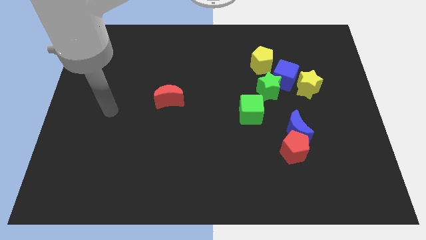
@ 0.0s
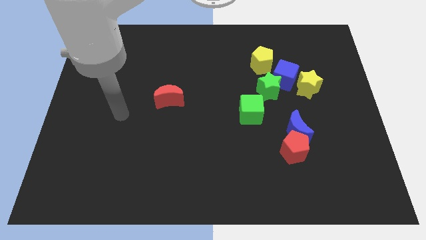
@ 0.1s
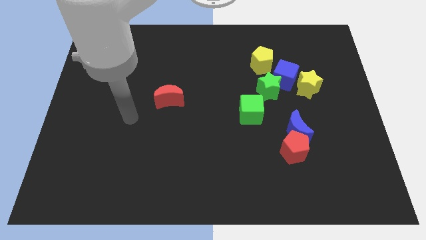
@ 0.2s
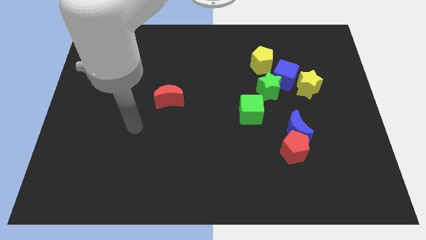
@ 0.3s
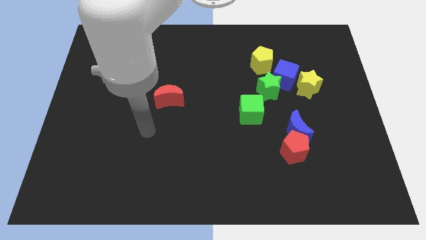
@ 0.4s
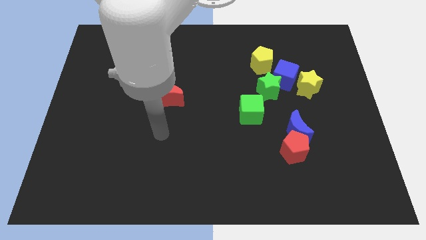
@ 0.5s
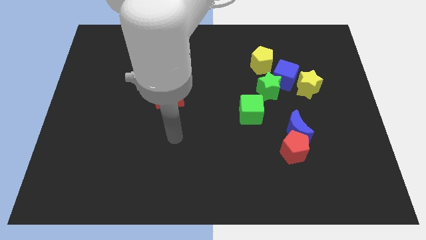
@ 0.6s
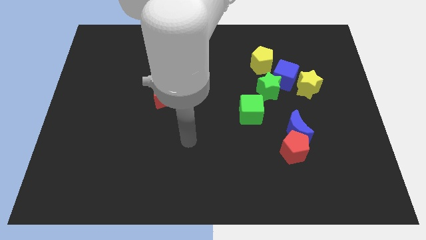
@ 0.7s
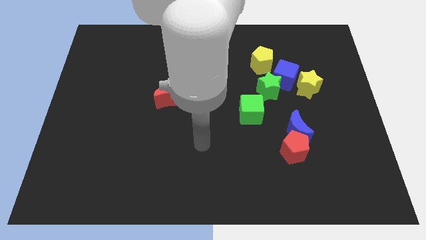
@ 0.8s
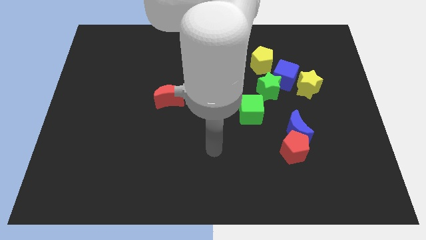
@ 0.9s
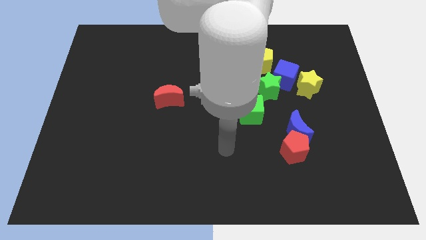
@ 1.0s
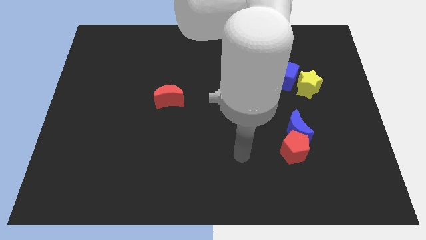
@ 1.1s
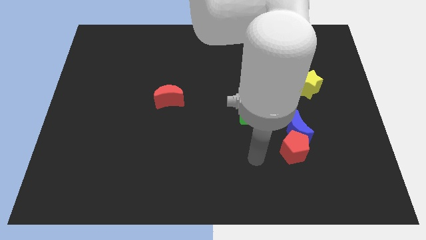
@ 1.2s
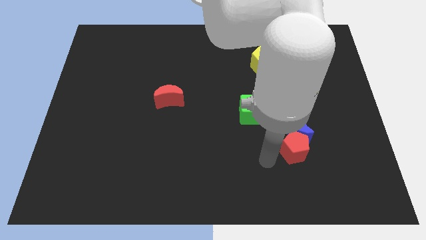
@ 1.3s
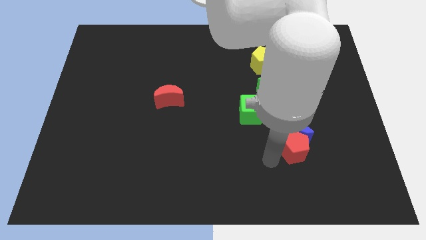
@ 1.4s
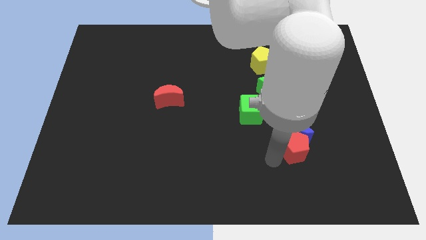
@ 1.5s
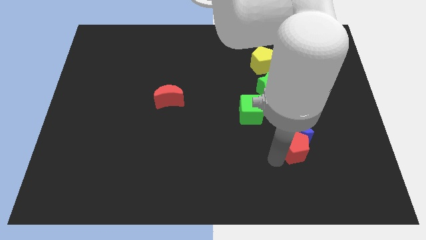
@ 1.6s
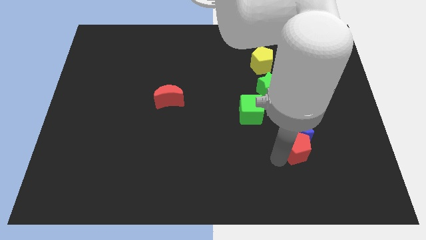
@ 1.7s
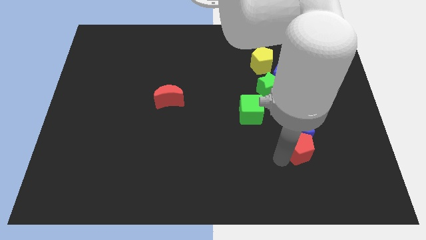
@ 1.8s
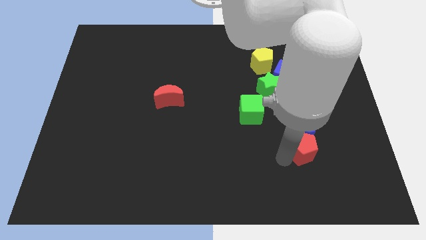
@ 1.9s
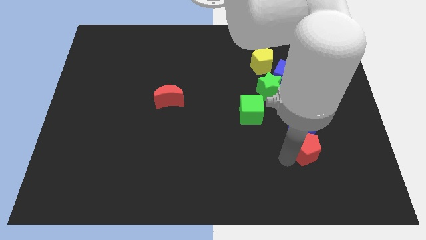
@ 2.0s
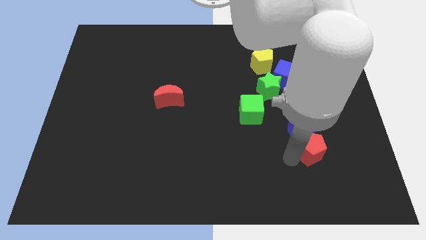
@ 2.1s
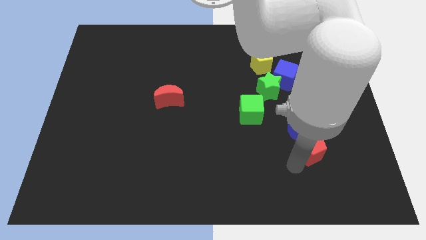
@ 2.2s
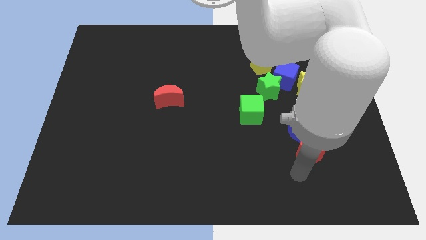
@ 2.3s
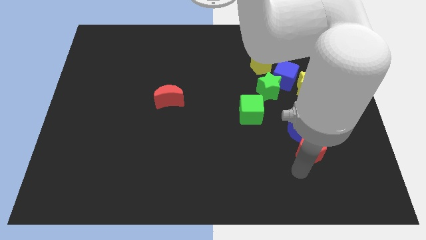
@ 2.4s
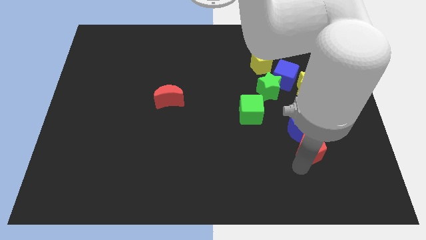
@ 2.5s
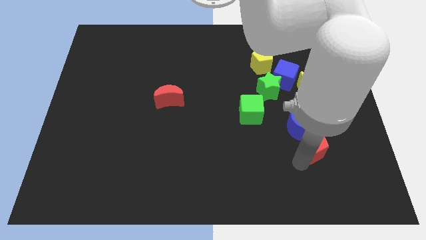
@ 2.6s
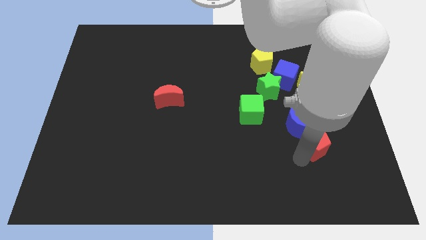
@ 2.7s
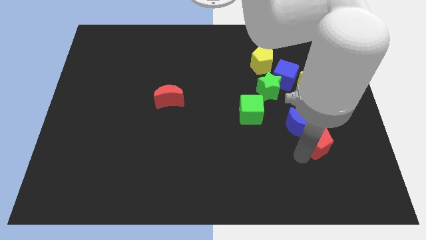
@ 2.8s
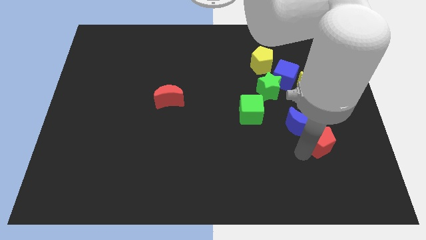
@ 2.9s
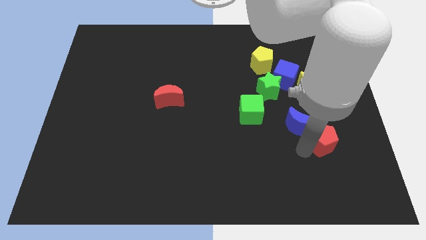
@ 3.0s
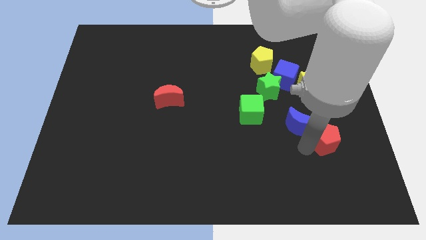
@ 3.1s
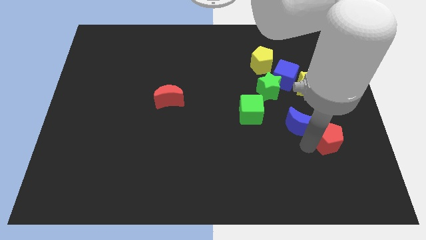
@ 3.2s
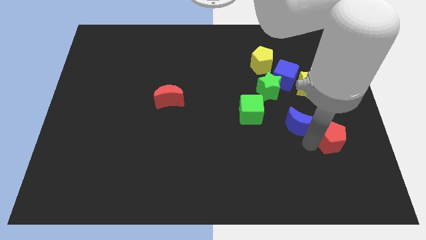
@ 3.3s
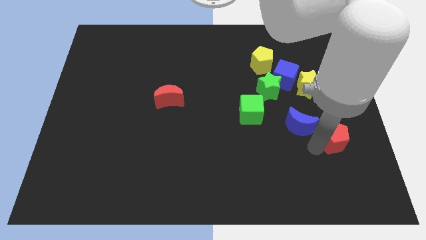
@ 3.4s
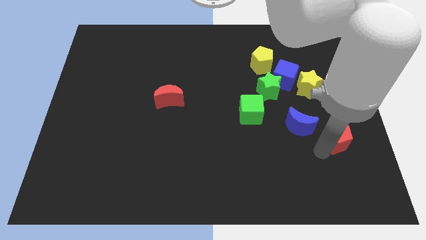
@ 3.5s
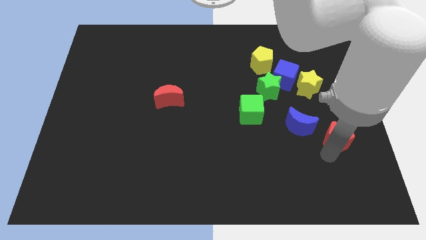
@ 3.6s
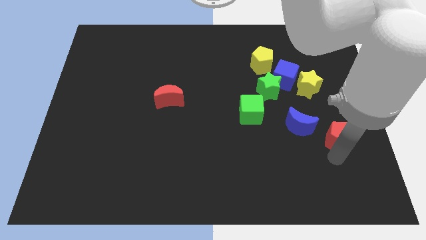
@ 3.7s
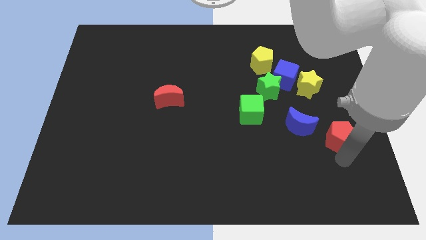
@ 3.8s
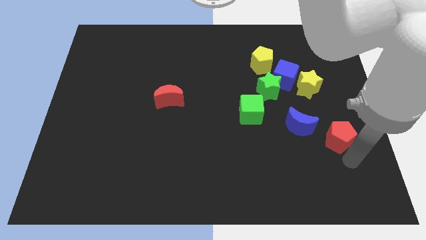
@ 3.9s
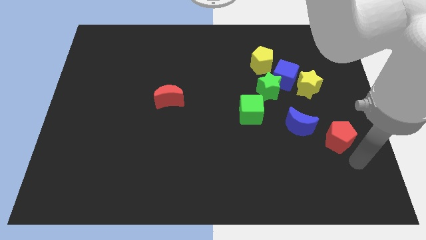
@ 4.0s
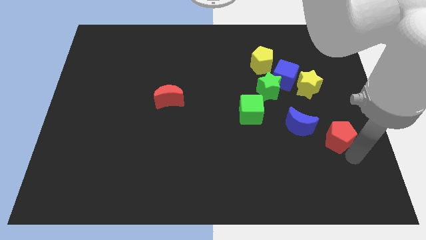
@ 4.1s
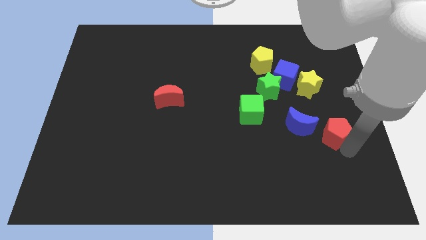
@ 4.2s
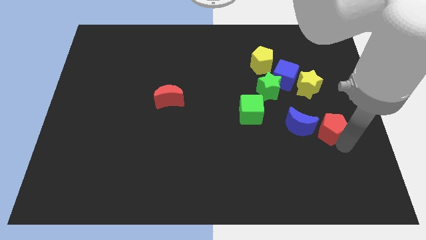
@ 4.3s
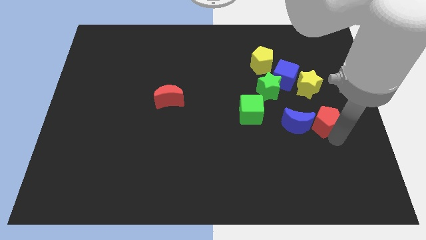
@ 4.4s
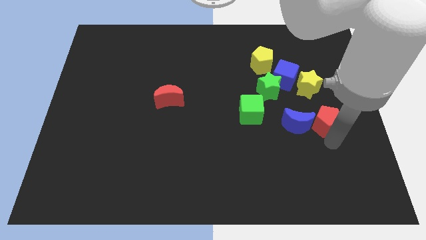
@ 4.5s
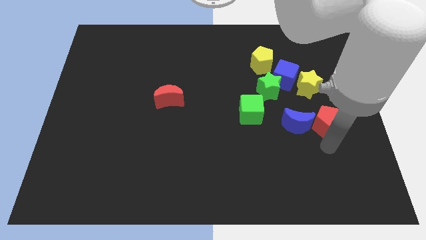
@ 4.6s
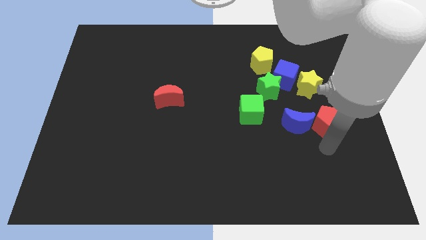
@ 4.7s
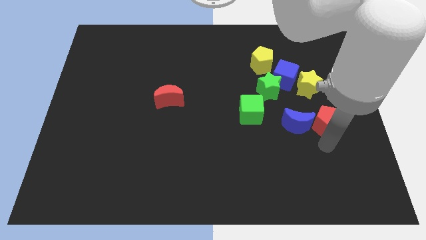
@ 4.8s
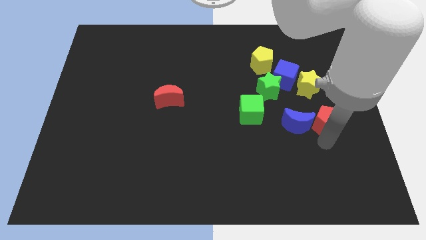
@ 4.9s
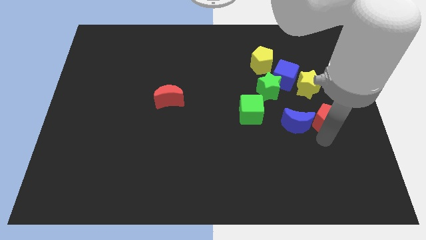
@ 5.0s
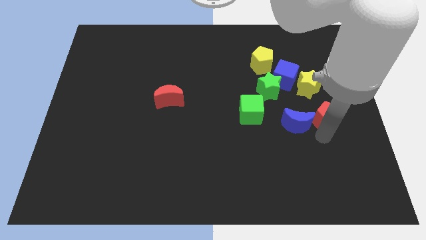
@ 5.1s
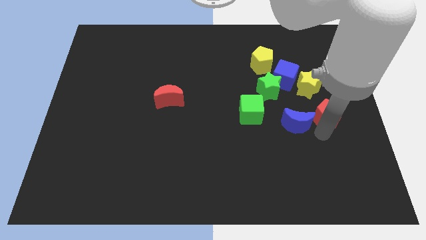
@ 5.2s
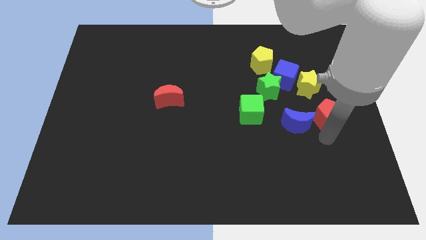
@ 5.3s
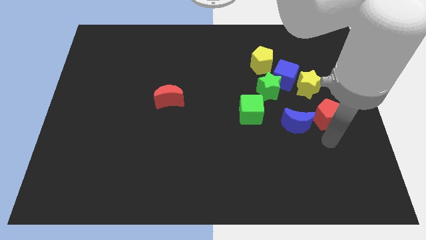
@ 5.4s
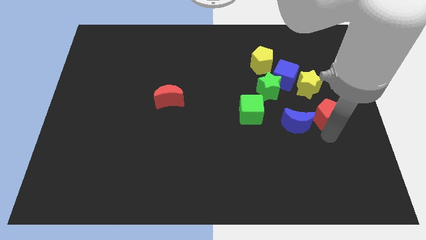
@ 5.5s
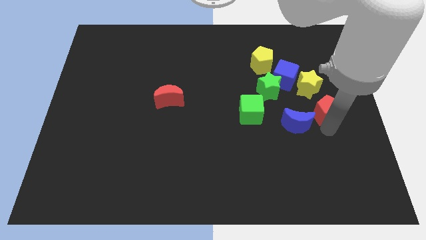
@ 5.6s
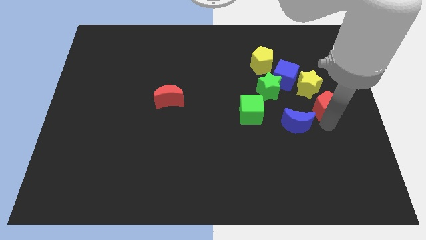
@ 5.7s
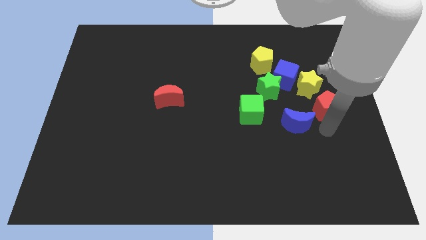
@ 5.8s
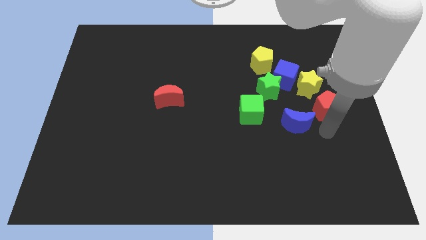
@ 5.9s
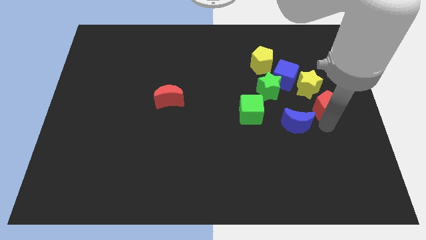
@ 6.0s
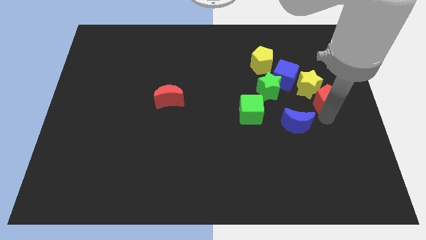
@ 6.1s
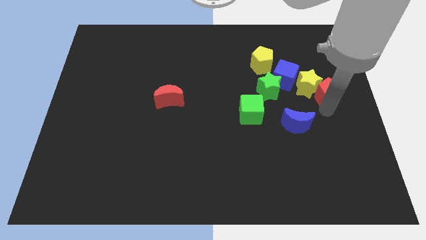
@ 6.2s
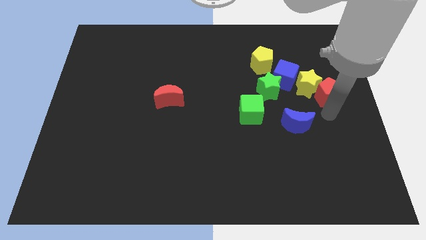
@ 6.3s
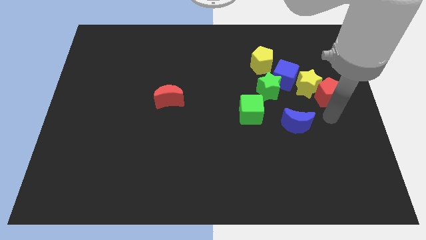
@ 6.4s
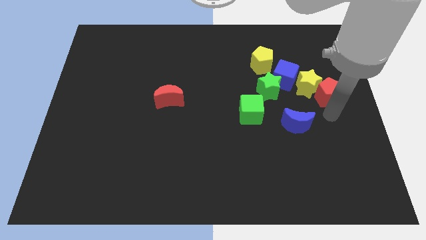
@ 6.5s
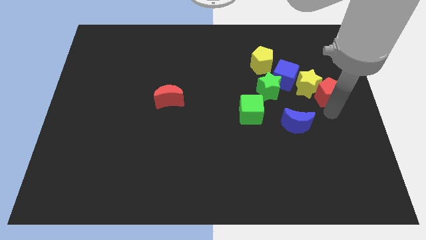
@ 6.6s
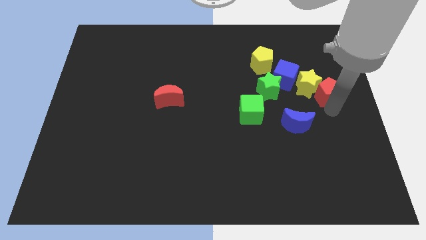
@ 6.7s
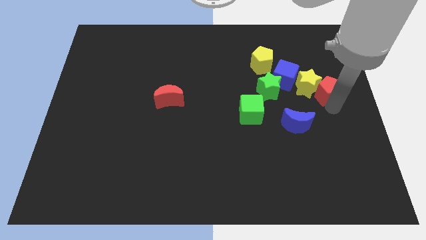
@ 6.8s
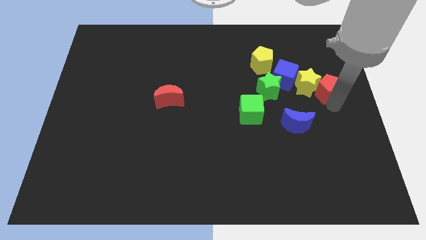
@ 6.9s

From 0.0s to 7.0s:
push the red pentagon to the right side of the blue cube

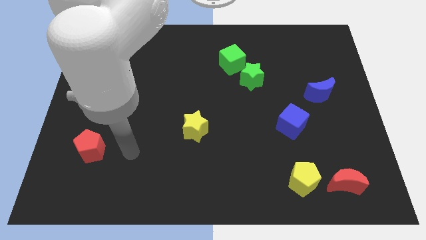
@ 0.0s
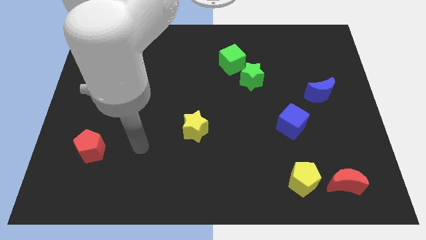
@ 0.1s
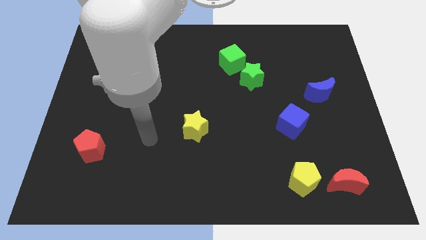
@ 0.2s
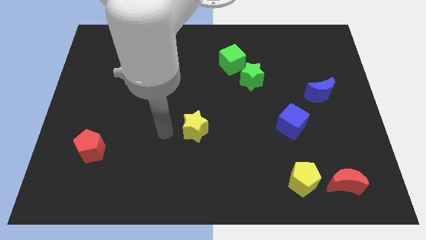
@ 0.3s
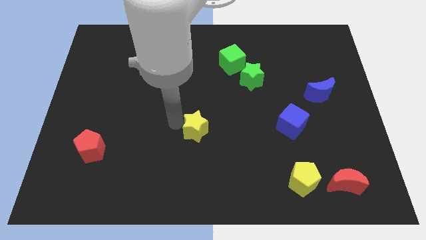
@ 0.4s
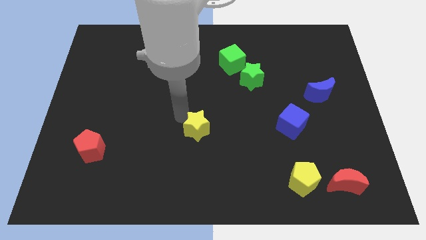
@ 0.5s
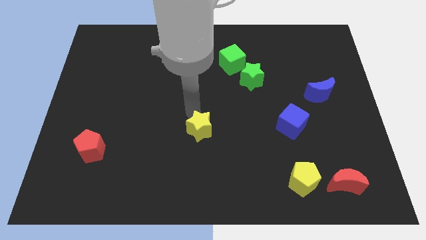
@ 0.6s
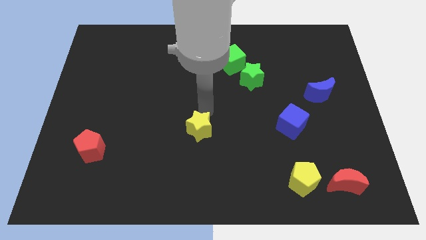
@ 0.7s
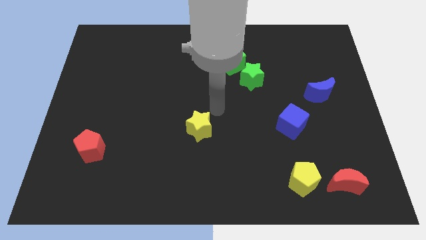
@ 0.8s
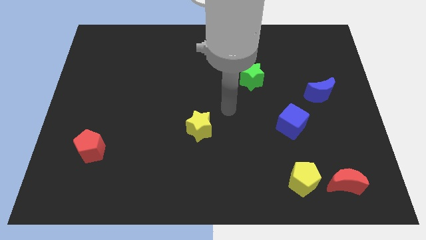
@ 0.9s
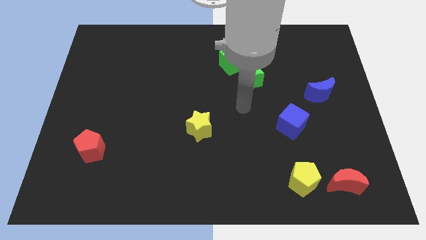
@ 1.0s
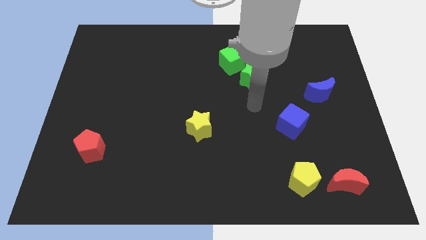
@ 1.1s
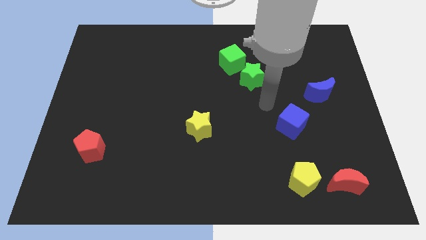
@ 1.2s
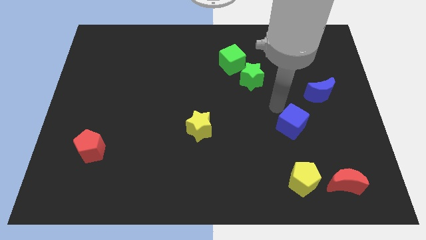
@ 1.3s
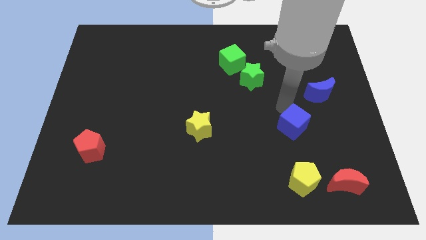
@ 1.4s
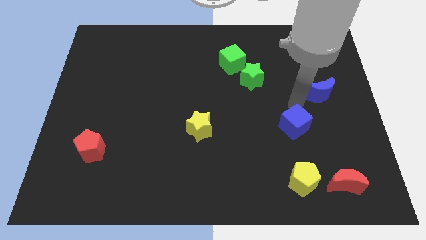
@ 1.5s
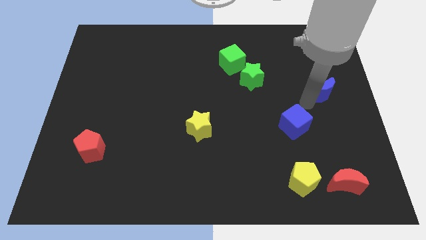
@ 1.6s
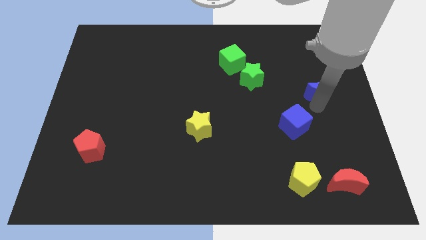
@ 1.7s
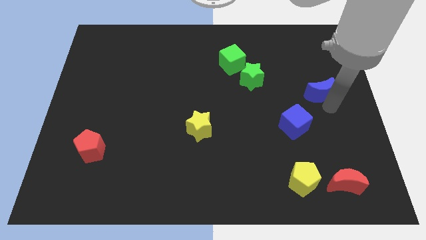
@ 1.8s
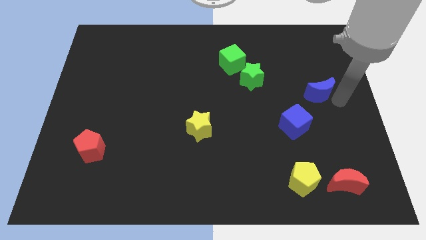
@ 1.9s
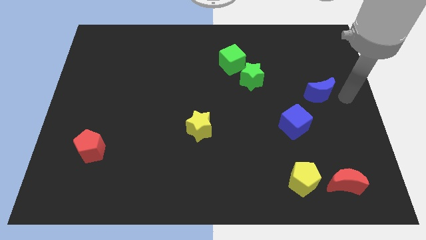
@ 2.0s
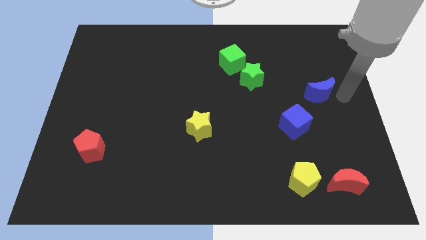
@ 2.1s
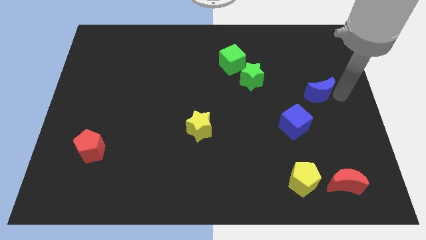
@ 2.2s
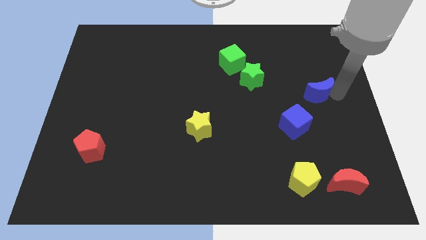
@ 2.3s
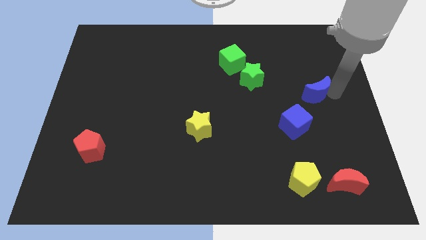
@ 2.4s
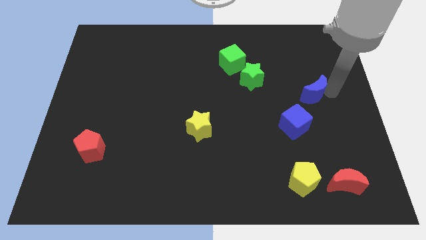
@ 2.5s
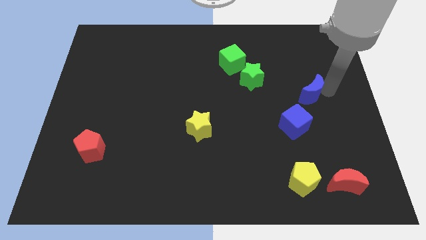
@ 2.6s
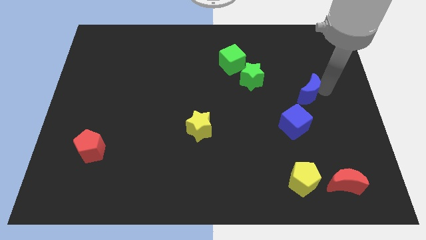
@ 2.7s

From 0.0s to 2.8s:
put the blue moon above the blue cube
